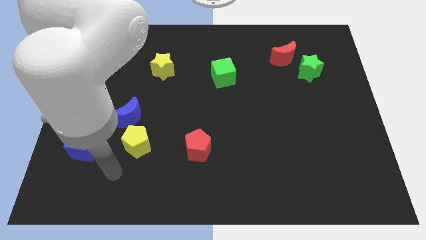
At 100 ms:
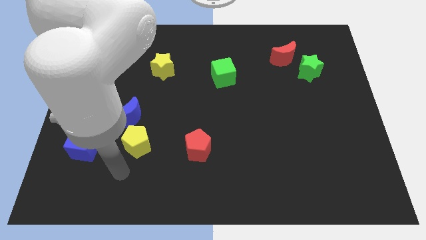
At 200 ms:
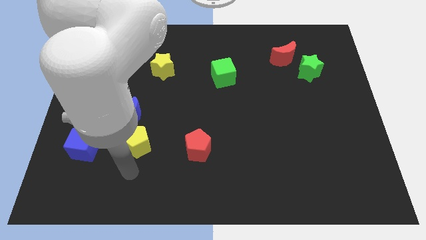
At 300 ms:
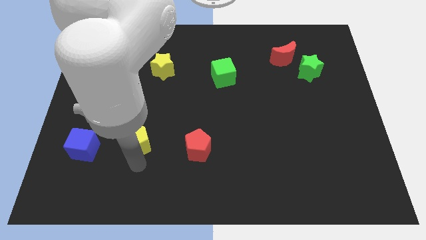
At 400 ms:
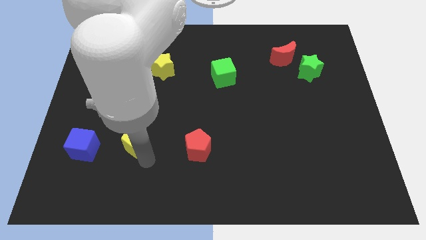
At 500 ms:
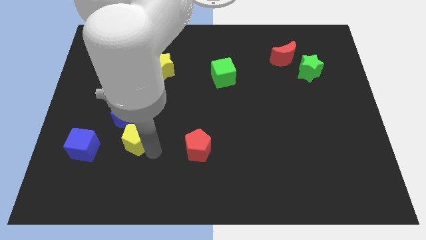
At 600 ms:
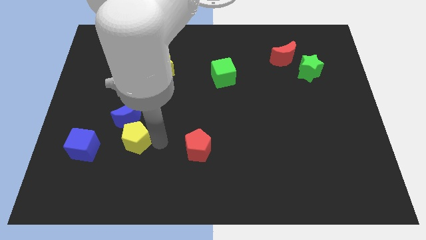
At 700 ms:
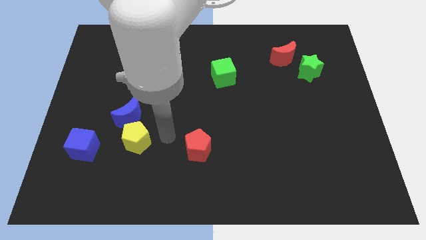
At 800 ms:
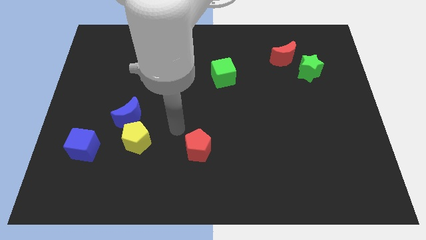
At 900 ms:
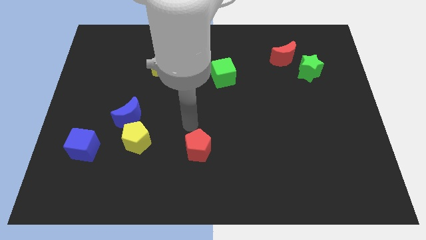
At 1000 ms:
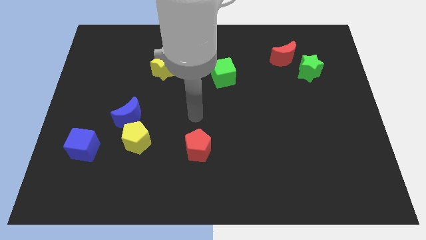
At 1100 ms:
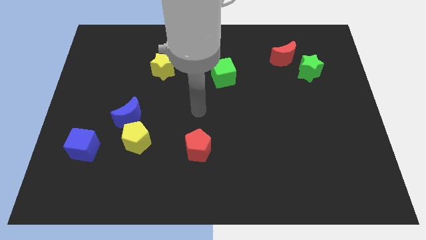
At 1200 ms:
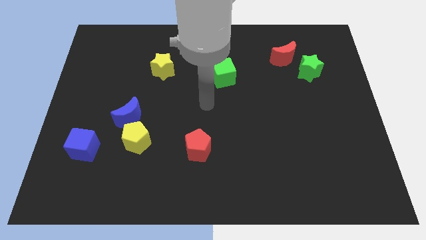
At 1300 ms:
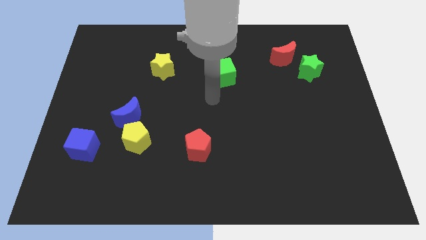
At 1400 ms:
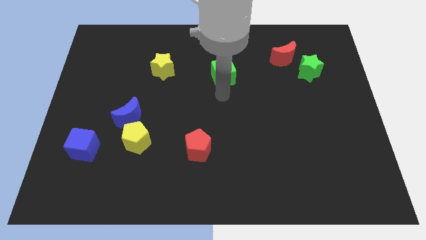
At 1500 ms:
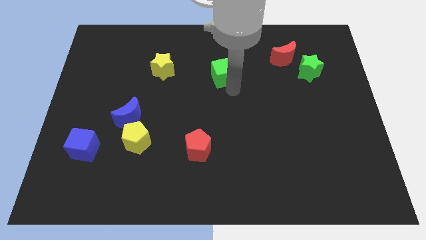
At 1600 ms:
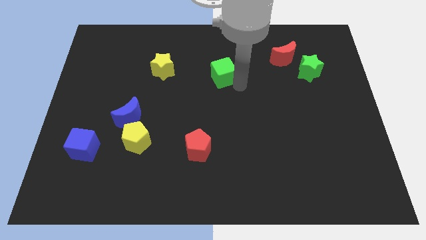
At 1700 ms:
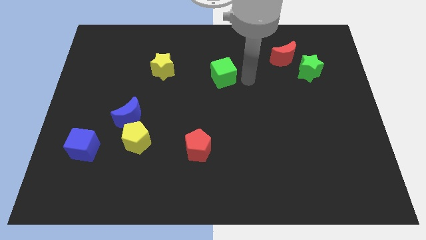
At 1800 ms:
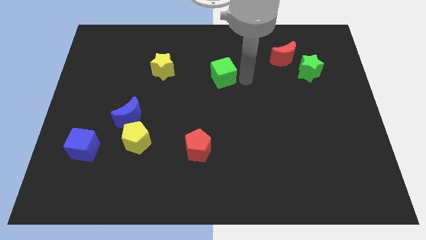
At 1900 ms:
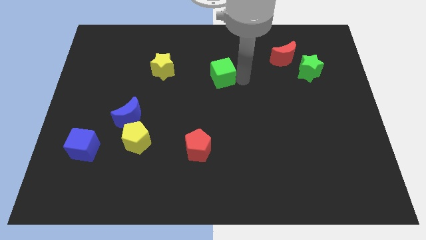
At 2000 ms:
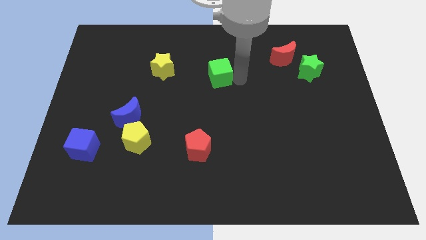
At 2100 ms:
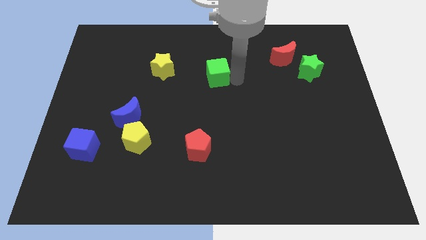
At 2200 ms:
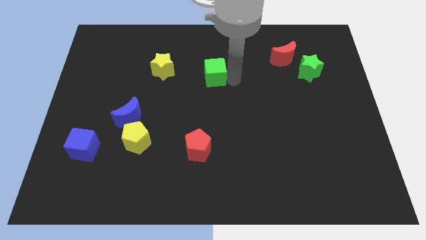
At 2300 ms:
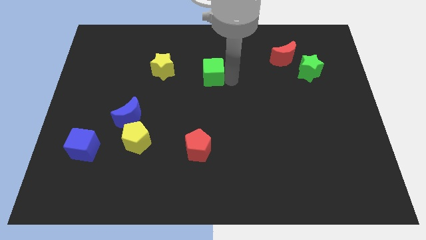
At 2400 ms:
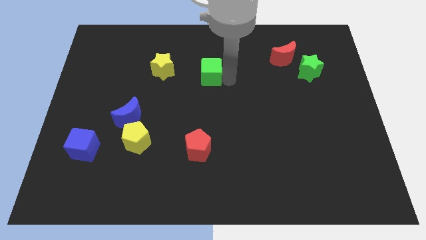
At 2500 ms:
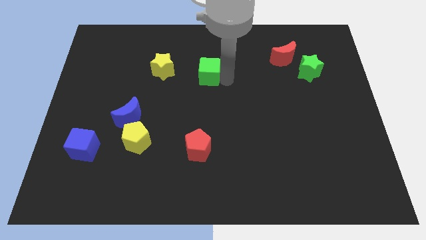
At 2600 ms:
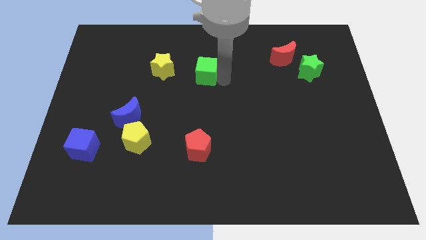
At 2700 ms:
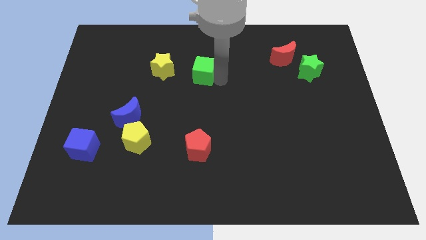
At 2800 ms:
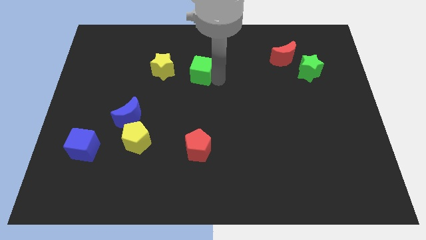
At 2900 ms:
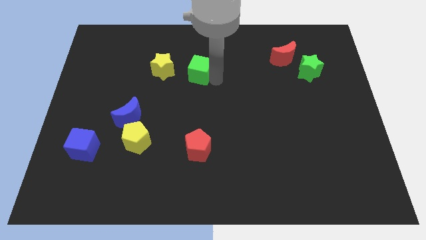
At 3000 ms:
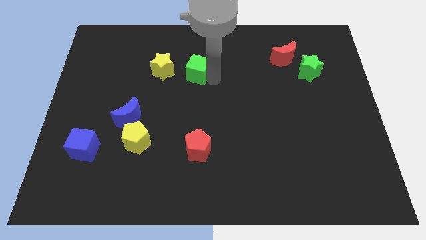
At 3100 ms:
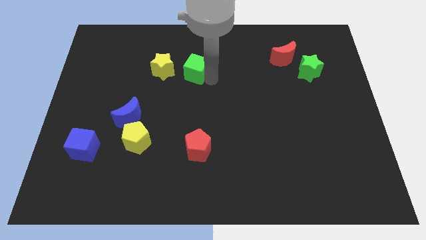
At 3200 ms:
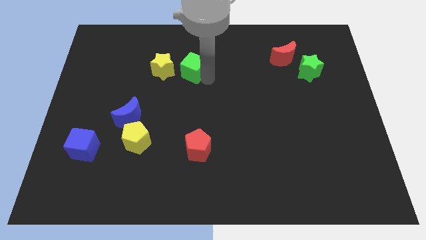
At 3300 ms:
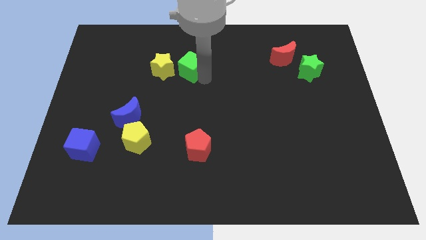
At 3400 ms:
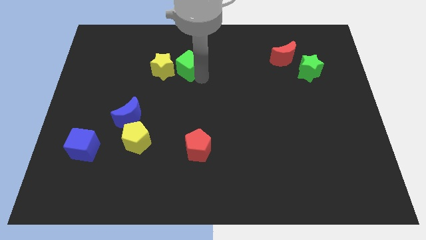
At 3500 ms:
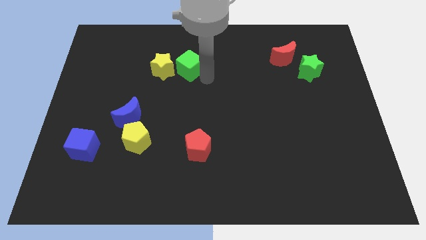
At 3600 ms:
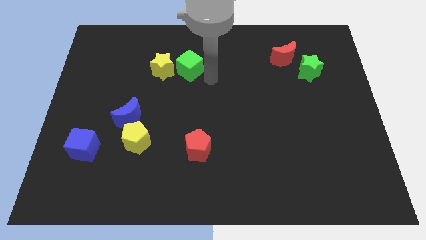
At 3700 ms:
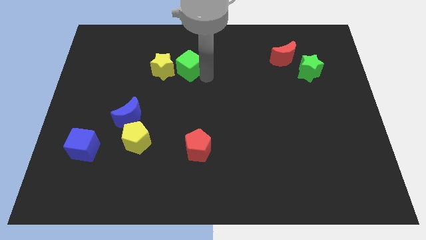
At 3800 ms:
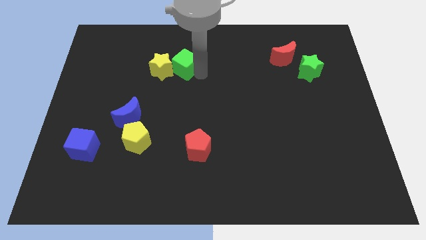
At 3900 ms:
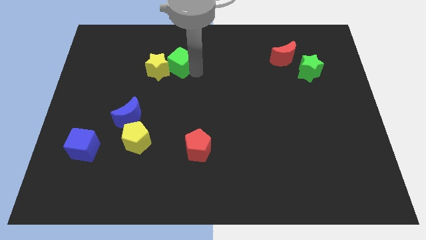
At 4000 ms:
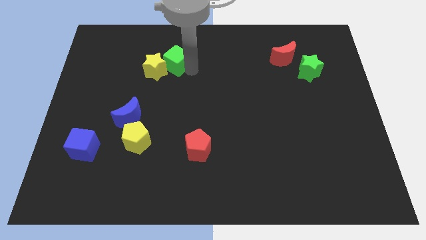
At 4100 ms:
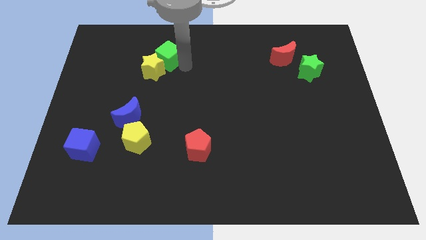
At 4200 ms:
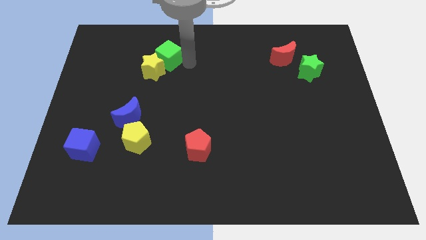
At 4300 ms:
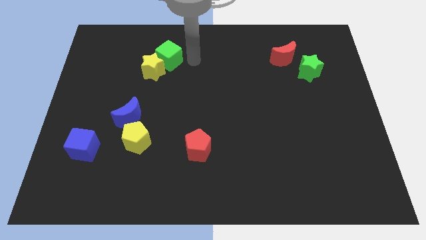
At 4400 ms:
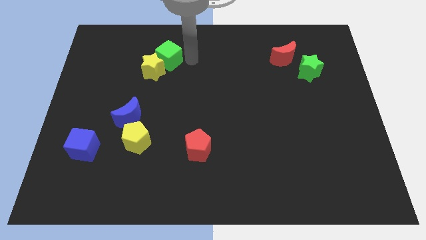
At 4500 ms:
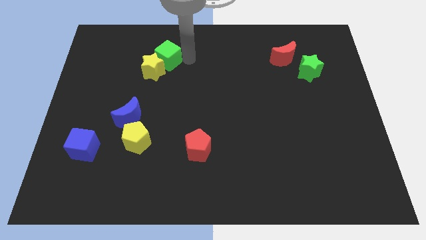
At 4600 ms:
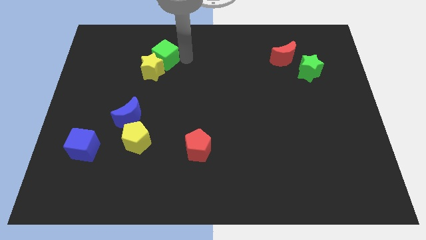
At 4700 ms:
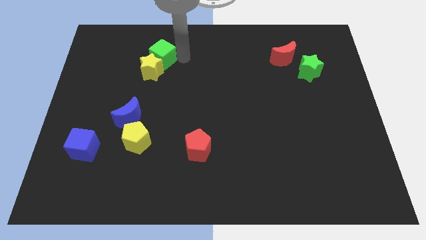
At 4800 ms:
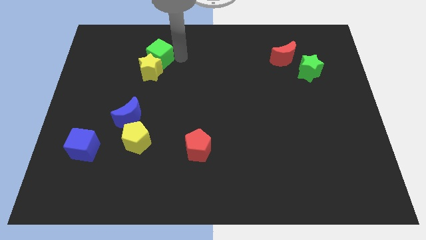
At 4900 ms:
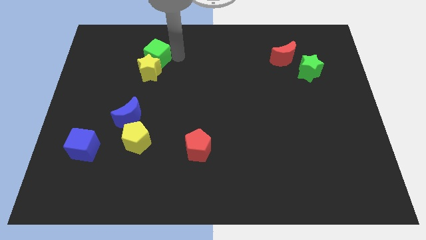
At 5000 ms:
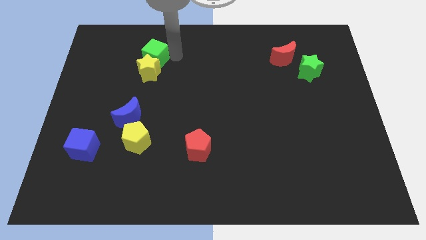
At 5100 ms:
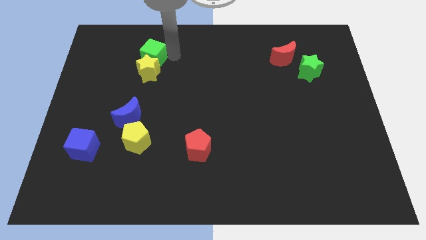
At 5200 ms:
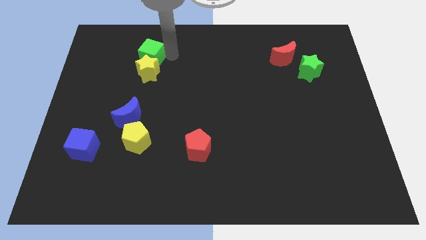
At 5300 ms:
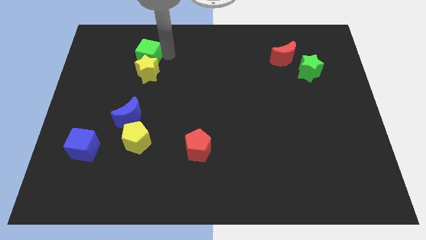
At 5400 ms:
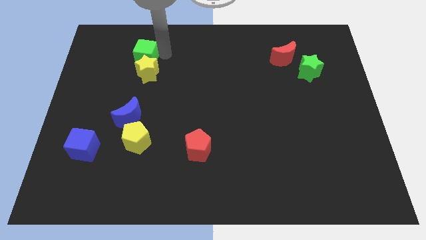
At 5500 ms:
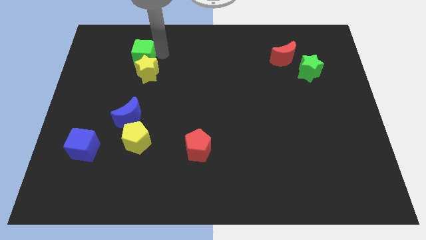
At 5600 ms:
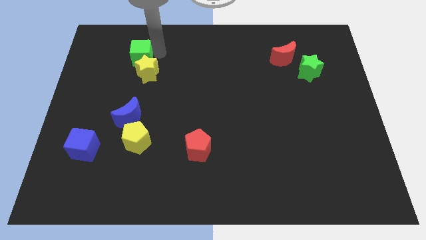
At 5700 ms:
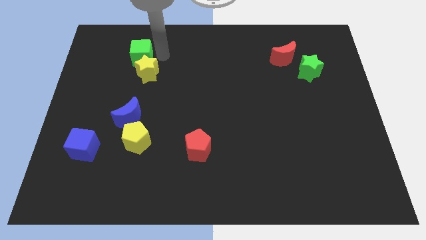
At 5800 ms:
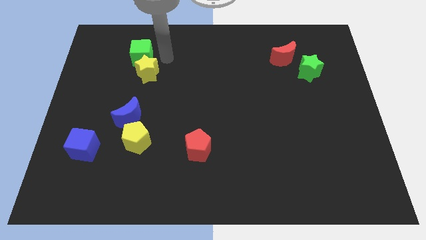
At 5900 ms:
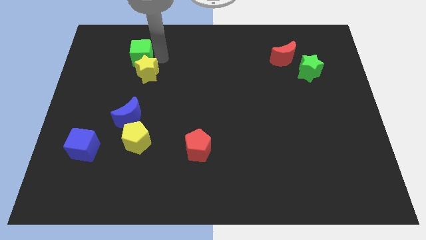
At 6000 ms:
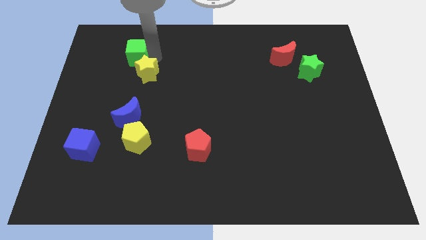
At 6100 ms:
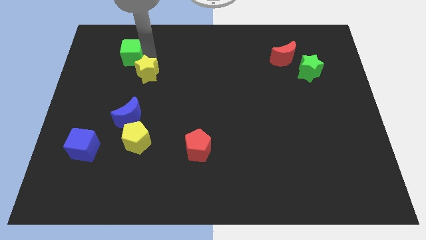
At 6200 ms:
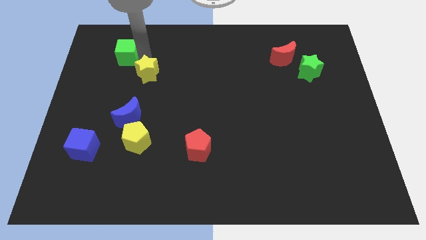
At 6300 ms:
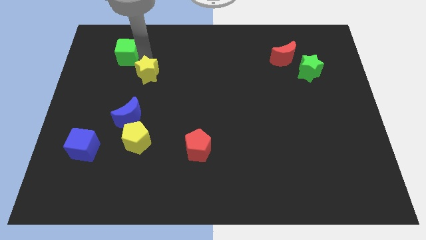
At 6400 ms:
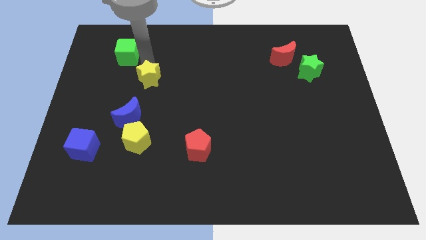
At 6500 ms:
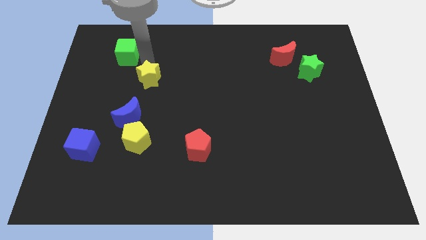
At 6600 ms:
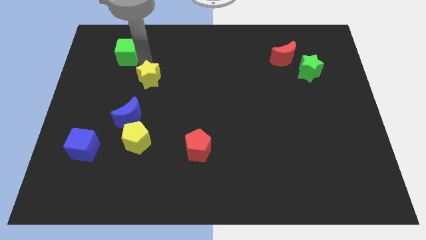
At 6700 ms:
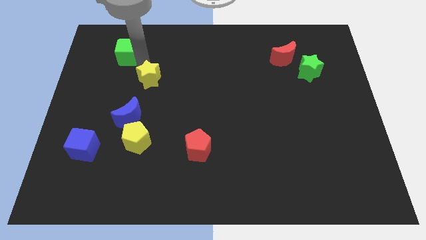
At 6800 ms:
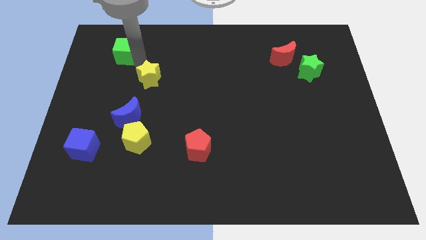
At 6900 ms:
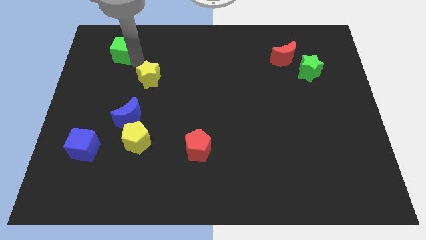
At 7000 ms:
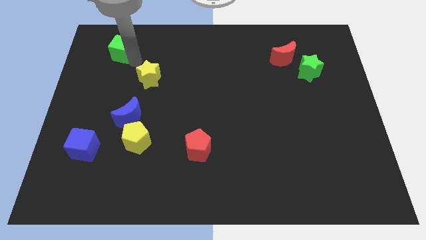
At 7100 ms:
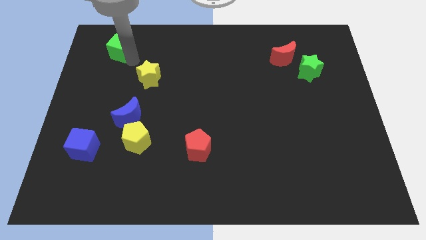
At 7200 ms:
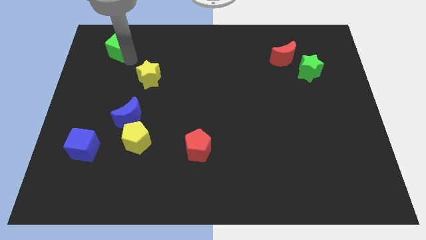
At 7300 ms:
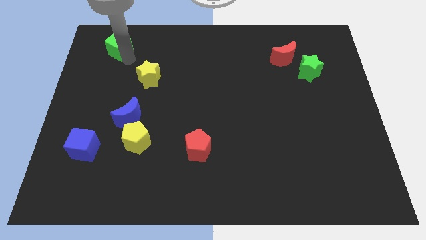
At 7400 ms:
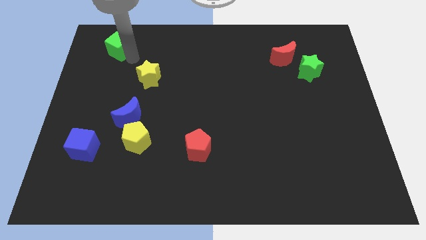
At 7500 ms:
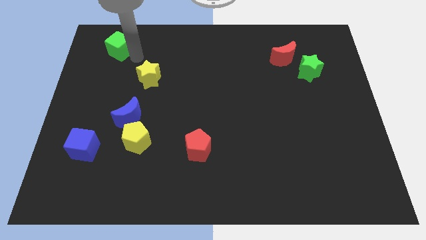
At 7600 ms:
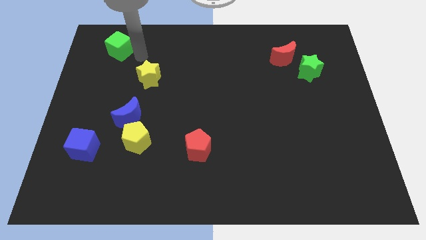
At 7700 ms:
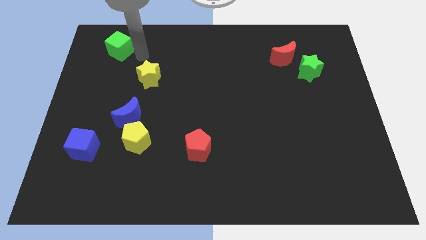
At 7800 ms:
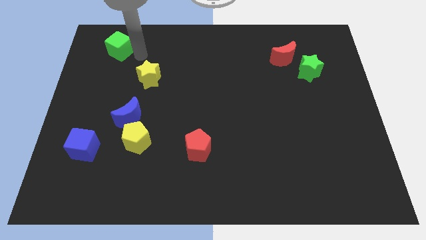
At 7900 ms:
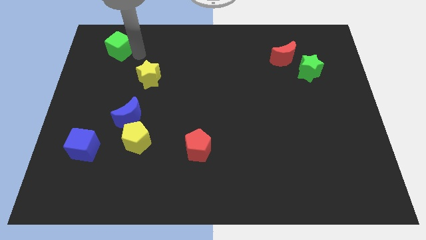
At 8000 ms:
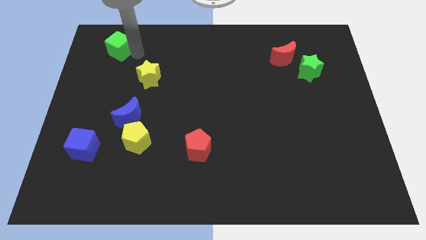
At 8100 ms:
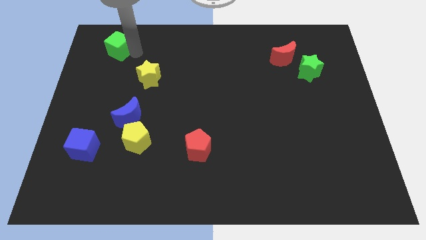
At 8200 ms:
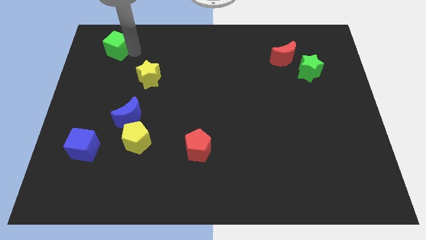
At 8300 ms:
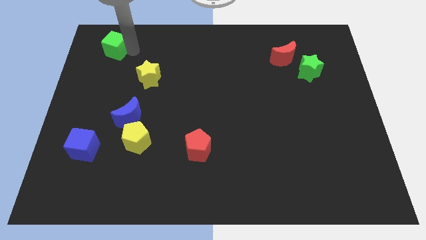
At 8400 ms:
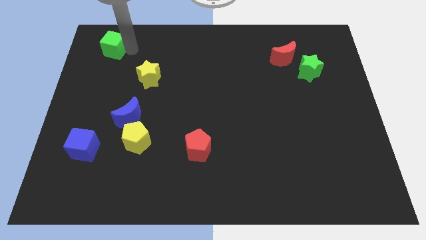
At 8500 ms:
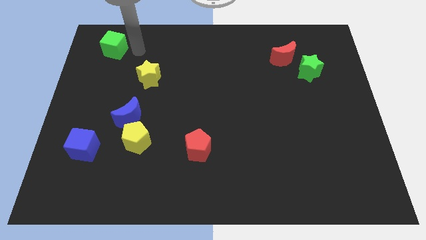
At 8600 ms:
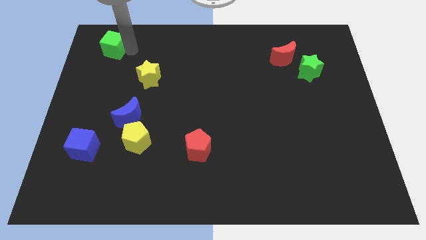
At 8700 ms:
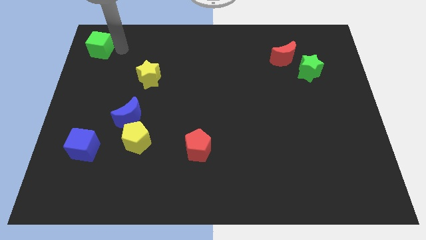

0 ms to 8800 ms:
move the green cube to the upper left corner
